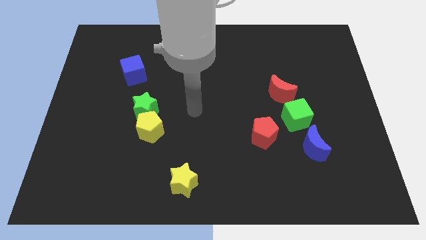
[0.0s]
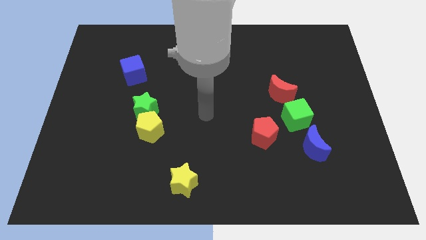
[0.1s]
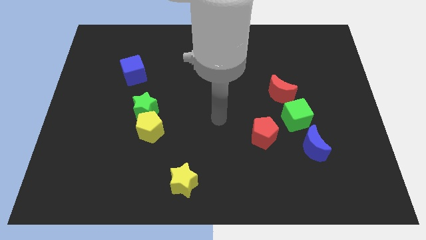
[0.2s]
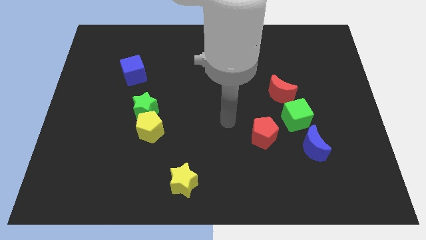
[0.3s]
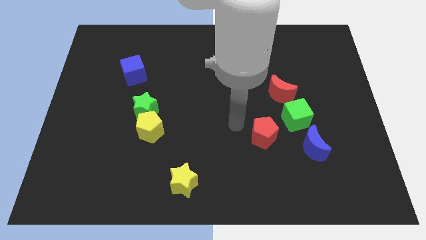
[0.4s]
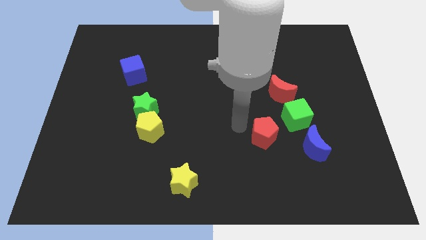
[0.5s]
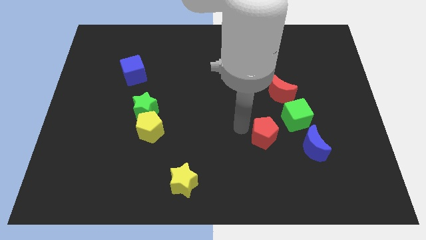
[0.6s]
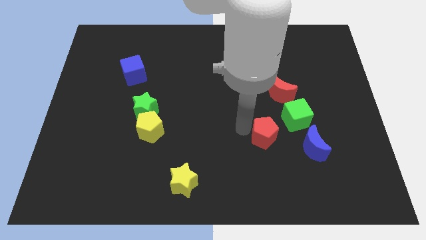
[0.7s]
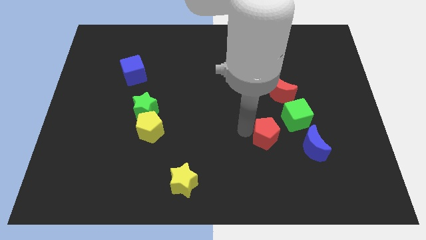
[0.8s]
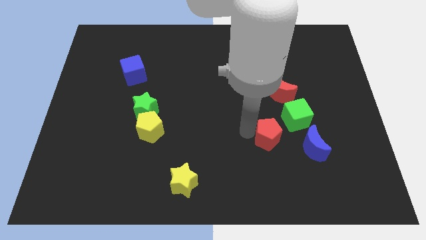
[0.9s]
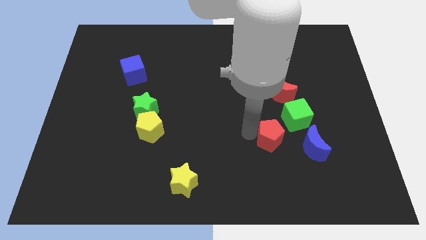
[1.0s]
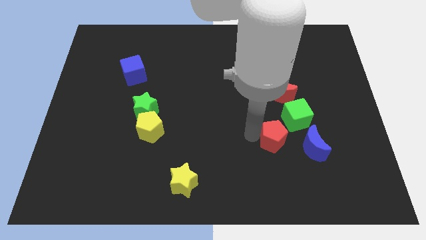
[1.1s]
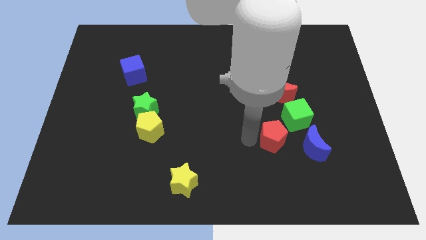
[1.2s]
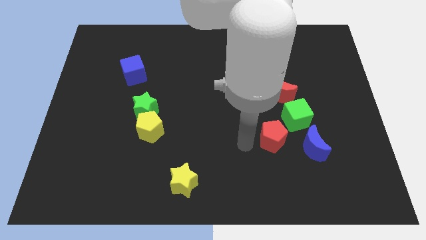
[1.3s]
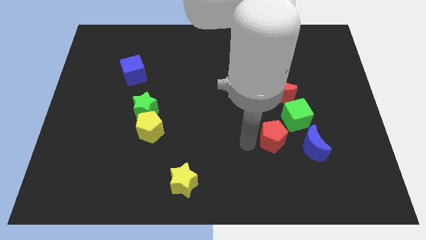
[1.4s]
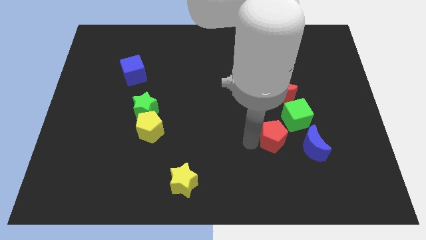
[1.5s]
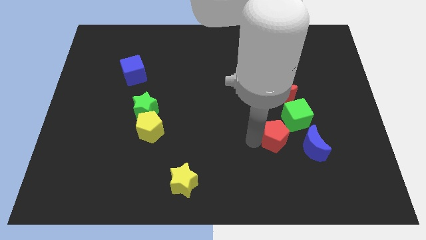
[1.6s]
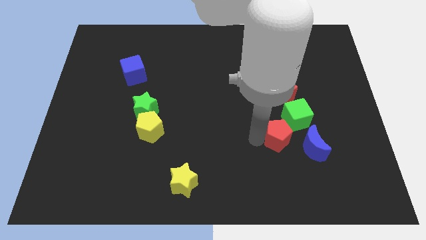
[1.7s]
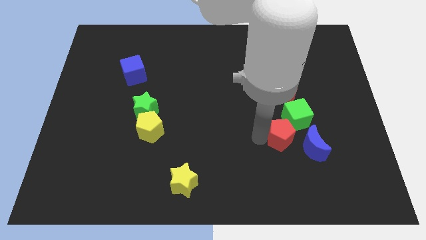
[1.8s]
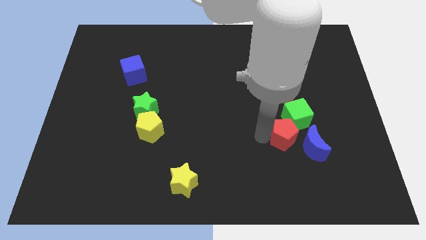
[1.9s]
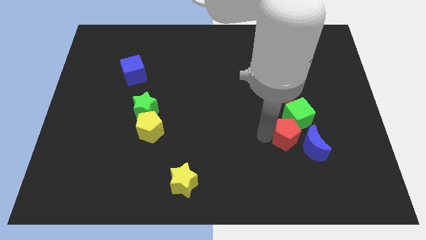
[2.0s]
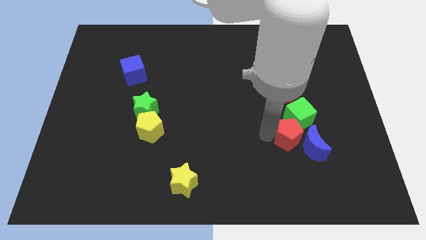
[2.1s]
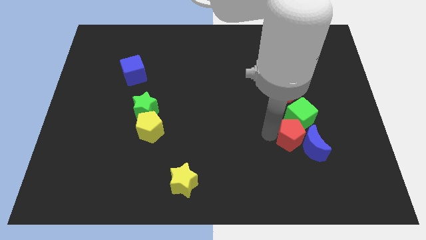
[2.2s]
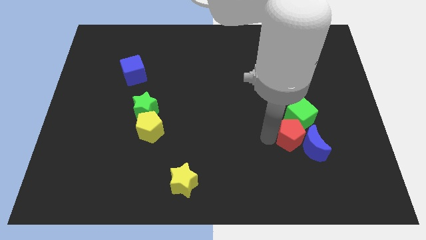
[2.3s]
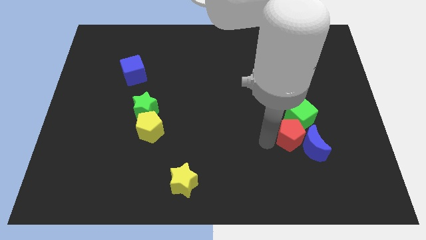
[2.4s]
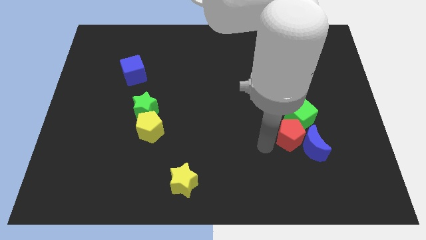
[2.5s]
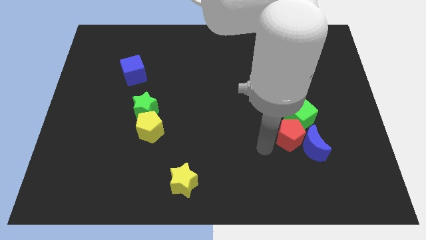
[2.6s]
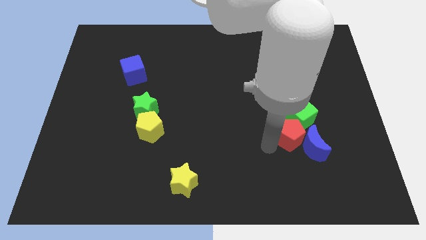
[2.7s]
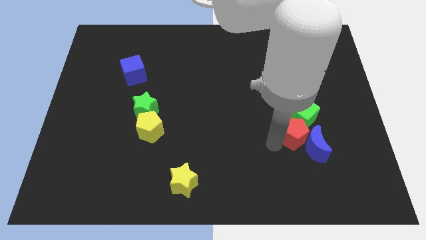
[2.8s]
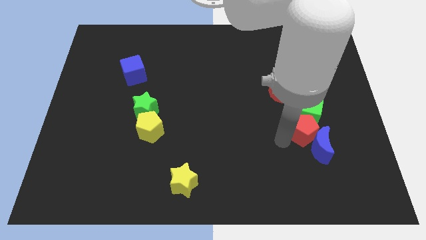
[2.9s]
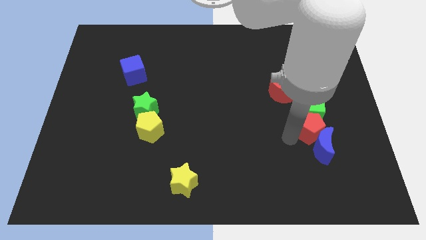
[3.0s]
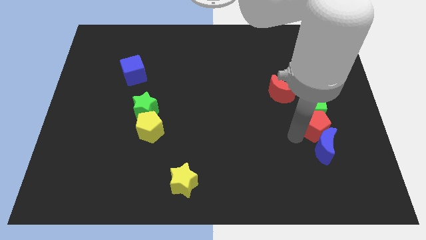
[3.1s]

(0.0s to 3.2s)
move the red pentagon upwards and right a little bit

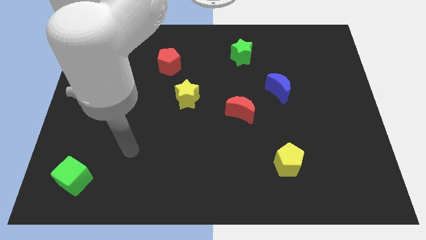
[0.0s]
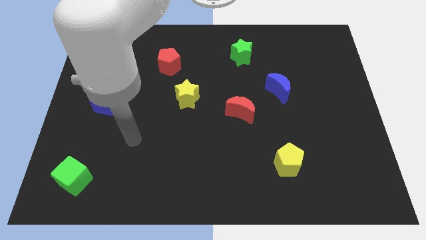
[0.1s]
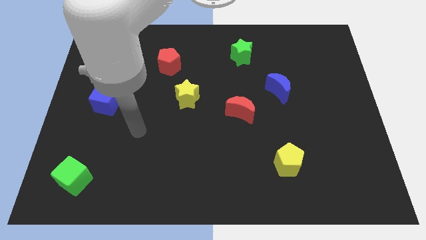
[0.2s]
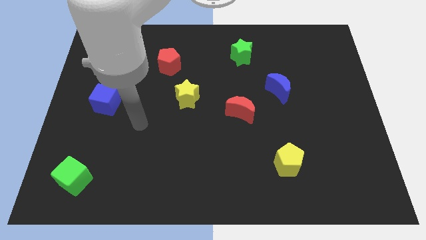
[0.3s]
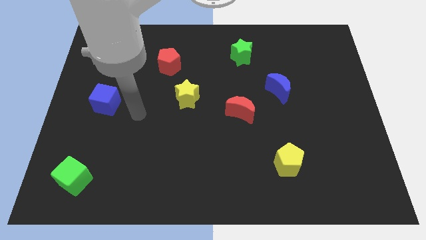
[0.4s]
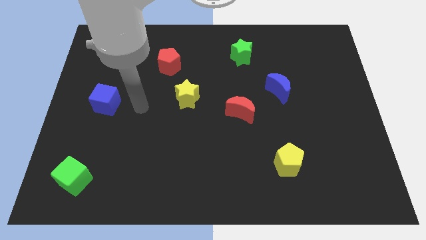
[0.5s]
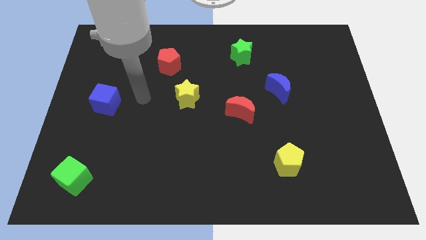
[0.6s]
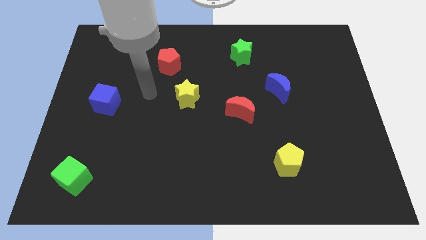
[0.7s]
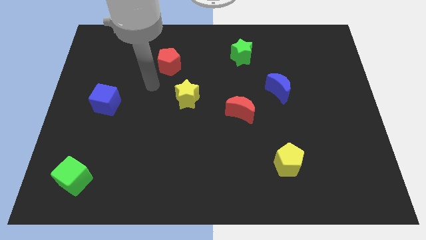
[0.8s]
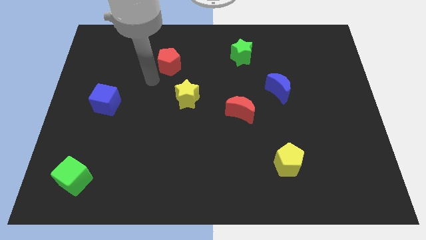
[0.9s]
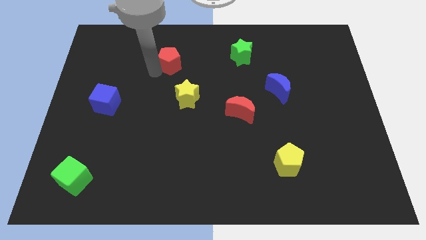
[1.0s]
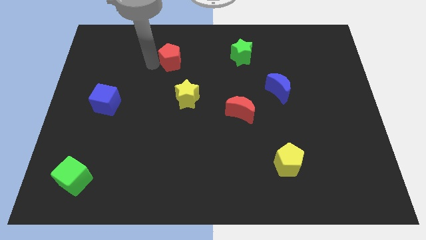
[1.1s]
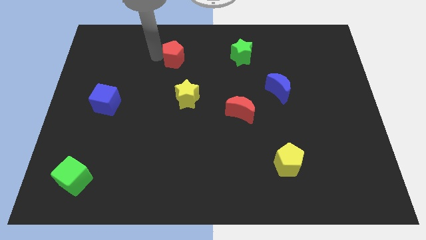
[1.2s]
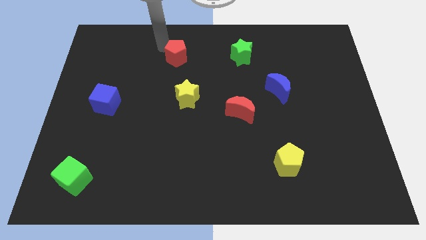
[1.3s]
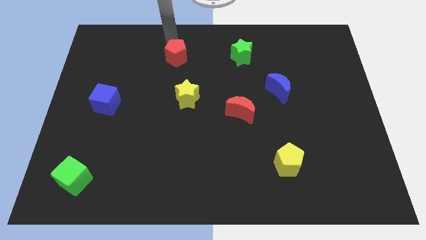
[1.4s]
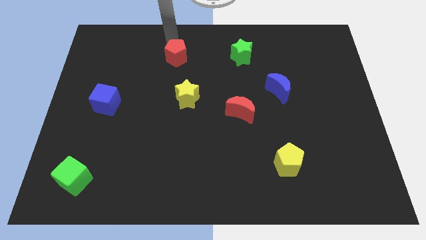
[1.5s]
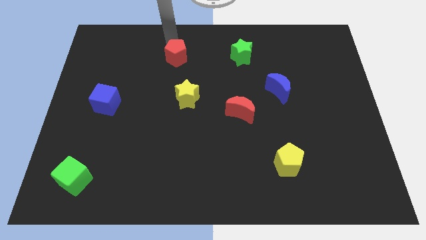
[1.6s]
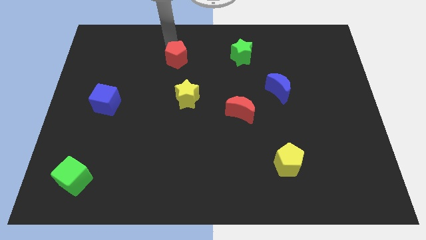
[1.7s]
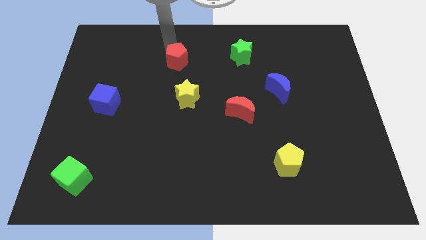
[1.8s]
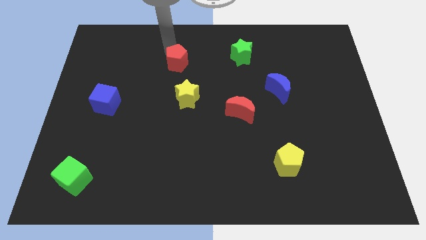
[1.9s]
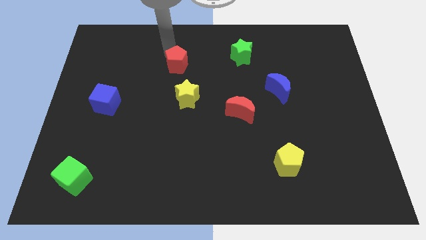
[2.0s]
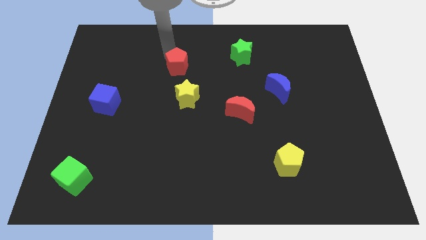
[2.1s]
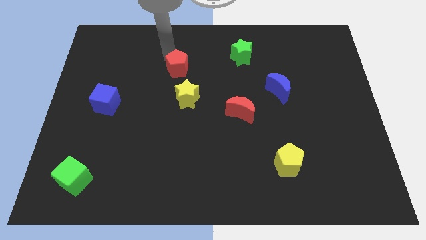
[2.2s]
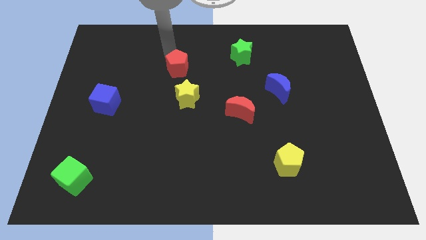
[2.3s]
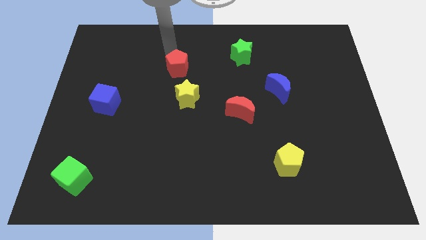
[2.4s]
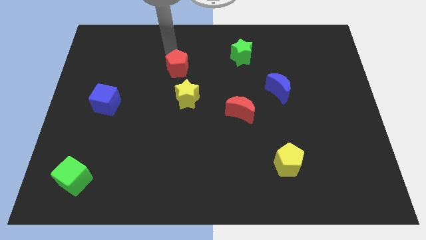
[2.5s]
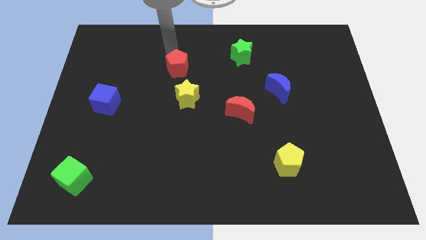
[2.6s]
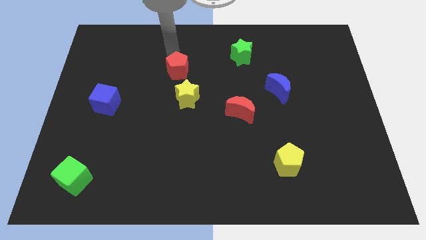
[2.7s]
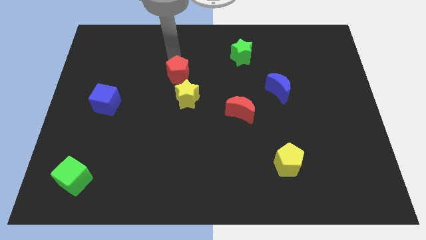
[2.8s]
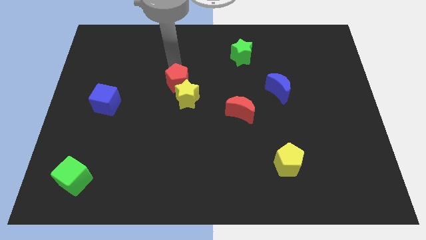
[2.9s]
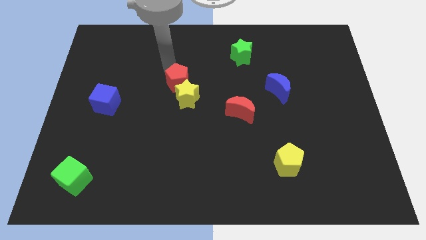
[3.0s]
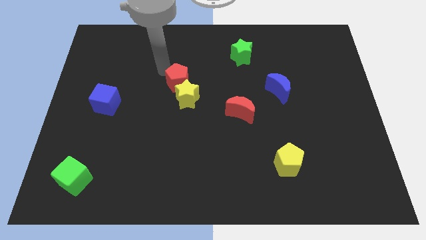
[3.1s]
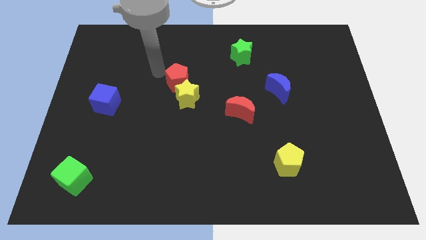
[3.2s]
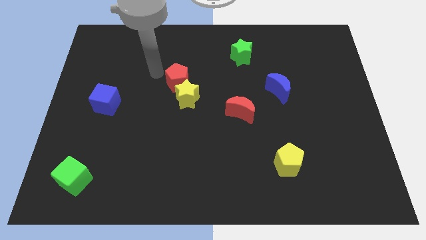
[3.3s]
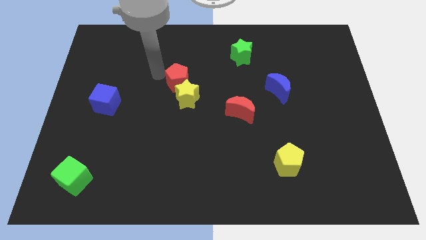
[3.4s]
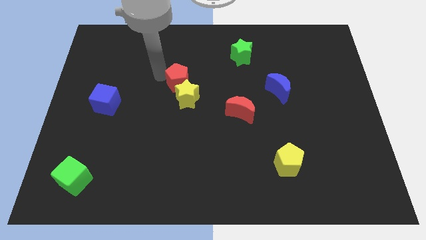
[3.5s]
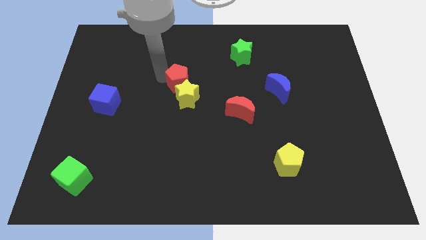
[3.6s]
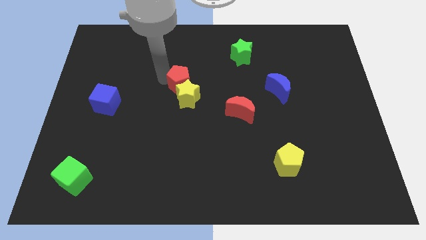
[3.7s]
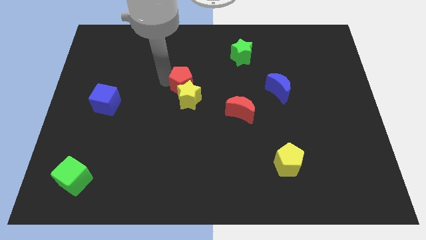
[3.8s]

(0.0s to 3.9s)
move the red pentagon a little bit downwards and to the right diagonally

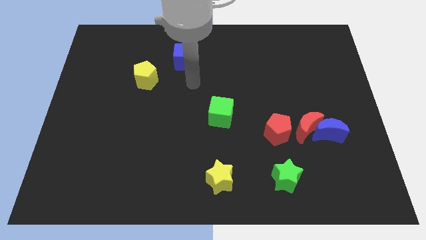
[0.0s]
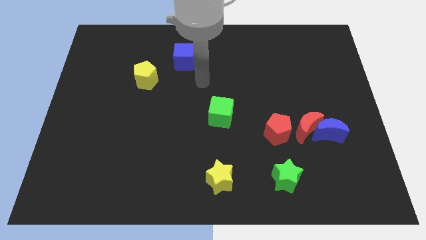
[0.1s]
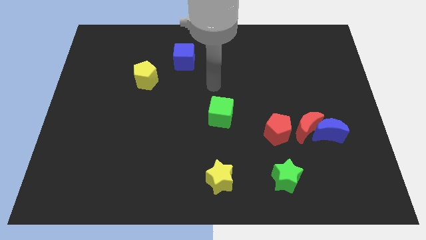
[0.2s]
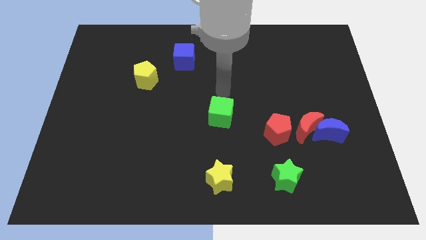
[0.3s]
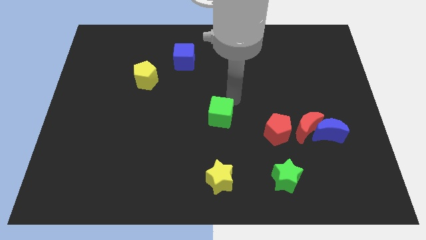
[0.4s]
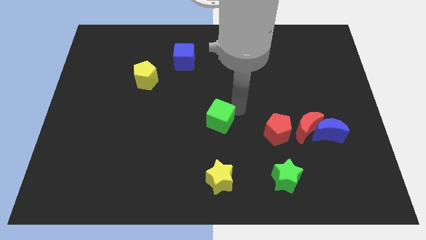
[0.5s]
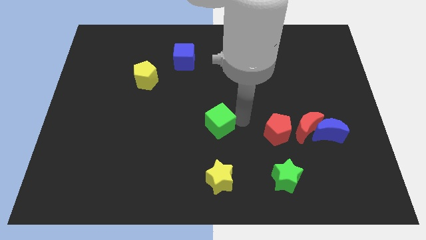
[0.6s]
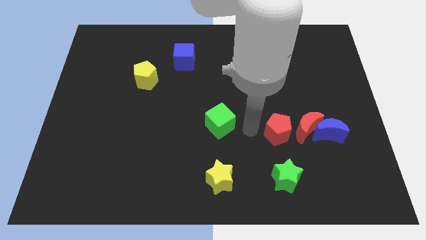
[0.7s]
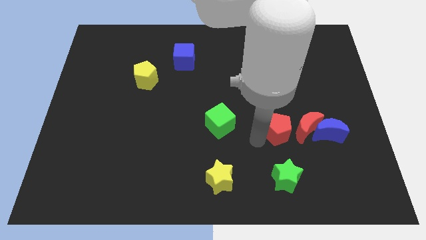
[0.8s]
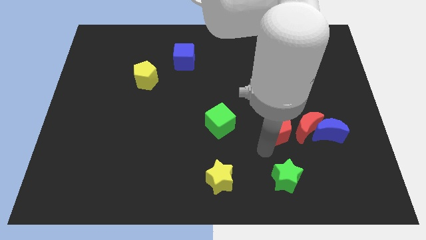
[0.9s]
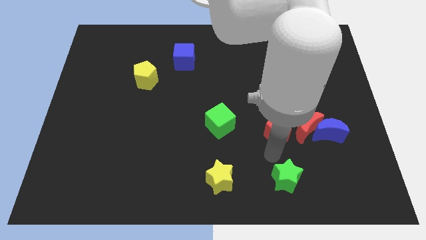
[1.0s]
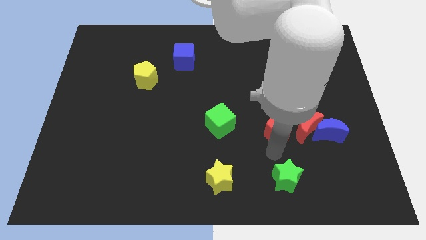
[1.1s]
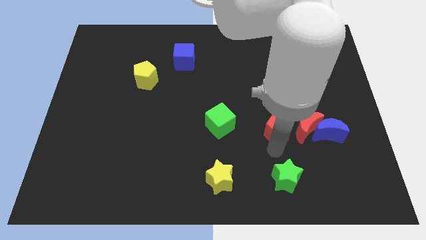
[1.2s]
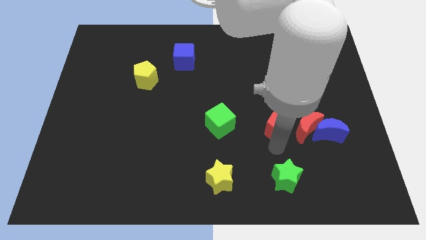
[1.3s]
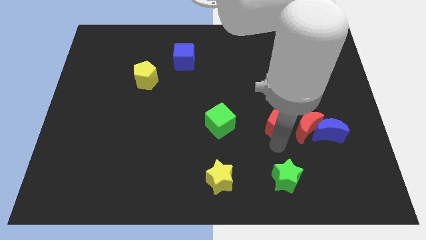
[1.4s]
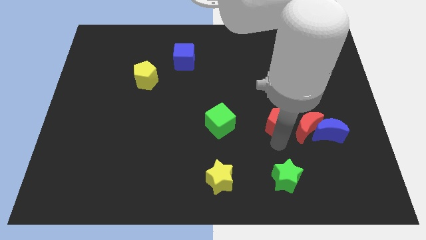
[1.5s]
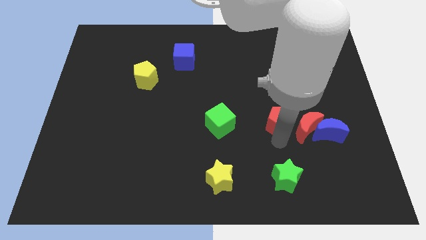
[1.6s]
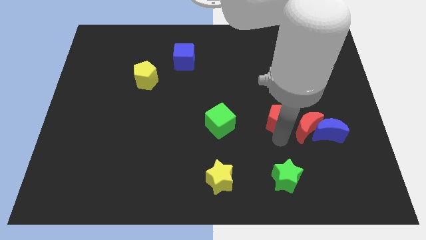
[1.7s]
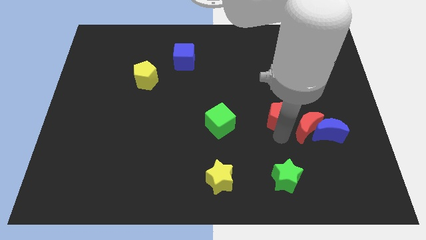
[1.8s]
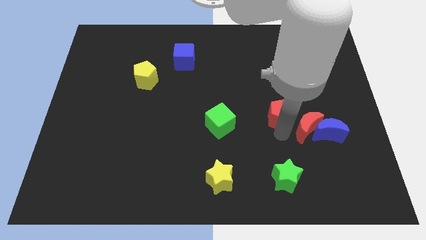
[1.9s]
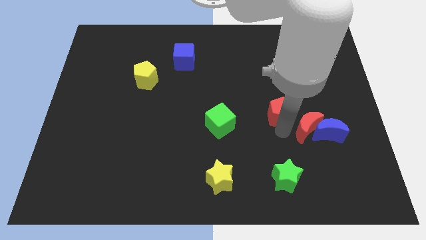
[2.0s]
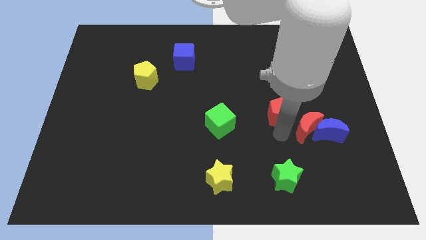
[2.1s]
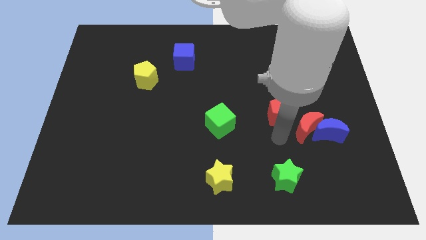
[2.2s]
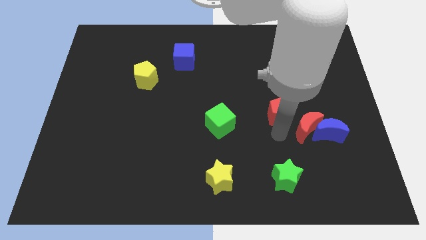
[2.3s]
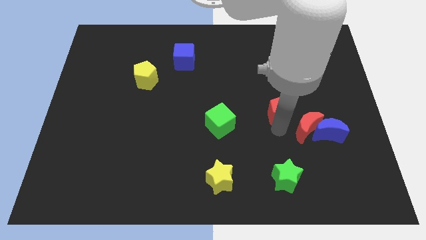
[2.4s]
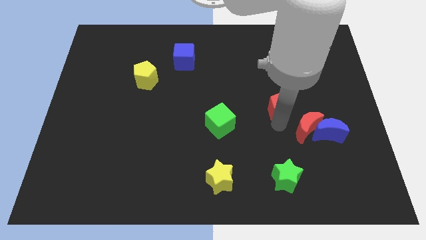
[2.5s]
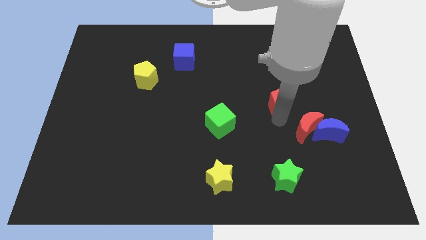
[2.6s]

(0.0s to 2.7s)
slide the red pentagon up a little bit
